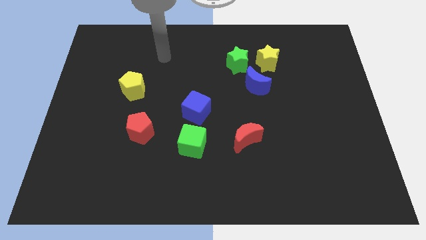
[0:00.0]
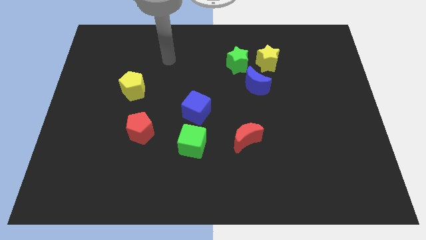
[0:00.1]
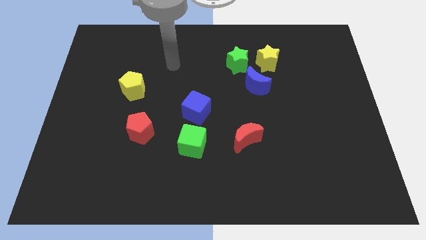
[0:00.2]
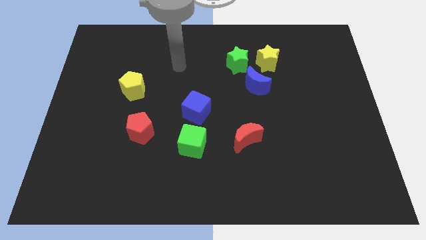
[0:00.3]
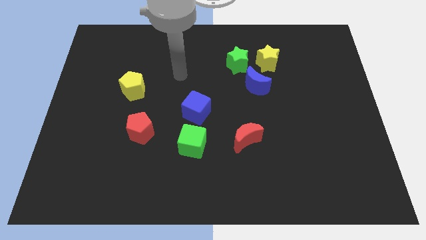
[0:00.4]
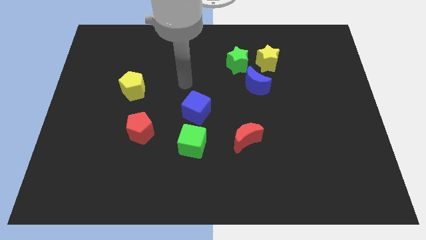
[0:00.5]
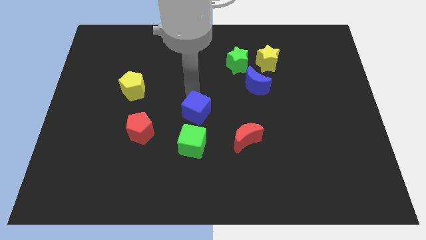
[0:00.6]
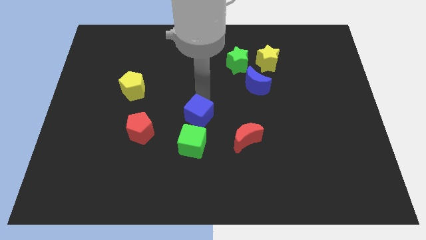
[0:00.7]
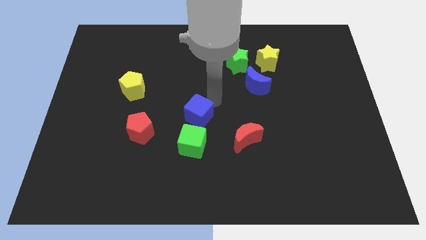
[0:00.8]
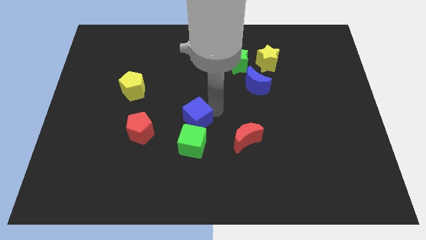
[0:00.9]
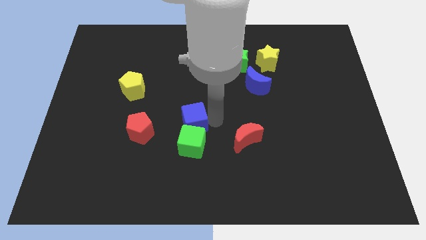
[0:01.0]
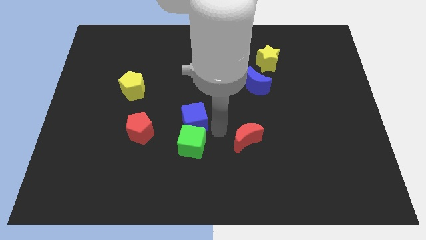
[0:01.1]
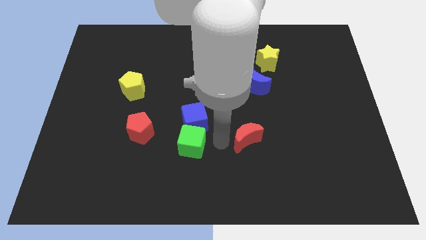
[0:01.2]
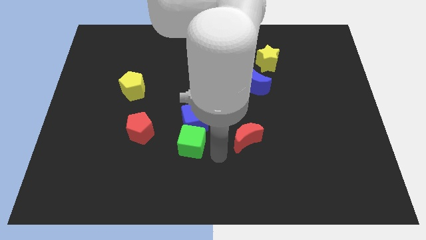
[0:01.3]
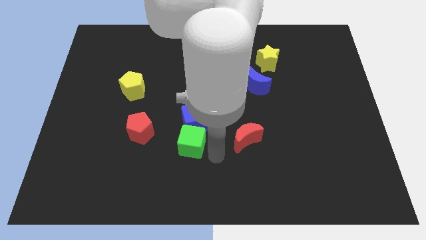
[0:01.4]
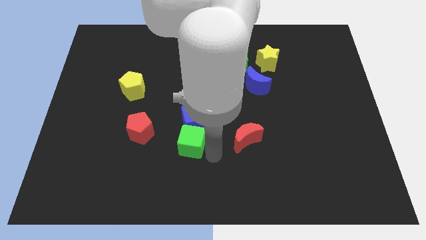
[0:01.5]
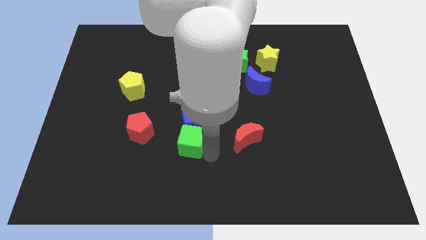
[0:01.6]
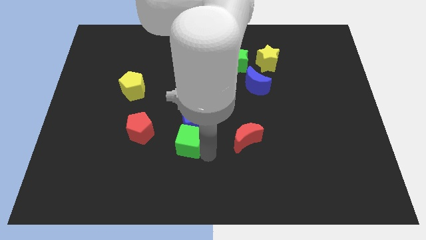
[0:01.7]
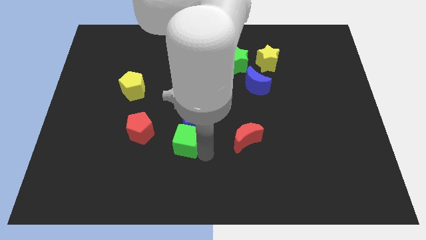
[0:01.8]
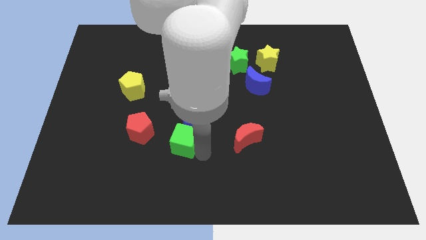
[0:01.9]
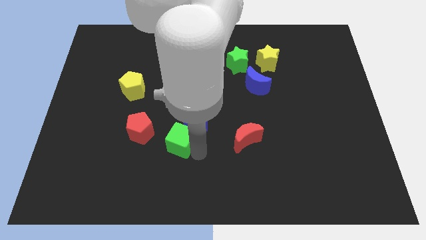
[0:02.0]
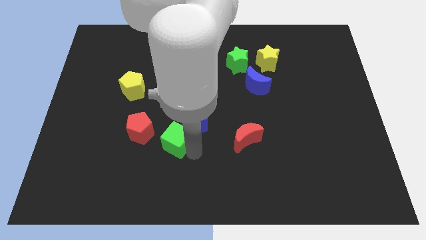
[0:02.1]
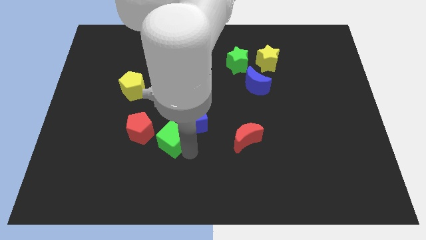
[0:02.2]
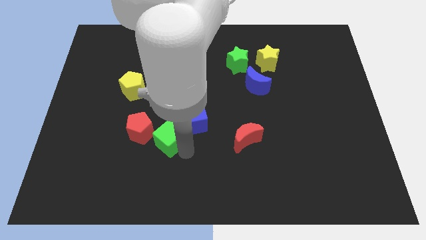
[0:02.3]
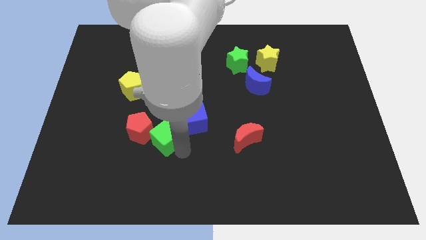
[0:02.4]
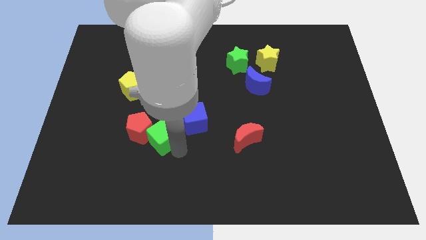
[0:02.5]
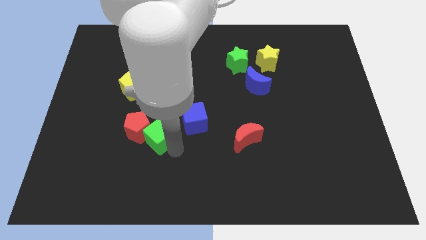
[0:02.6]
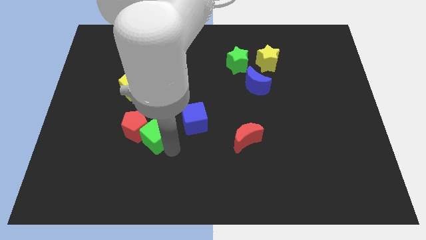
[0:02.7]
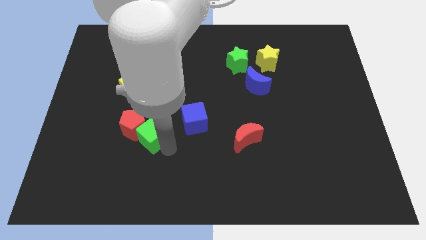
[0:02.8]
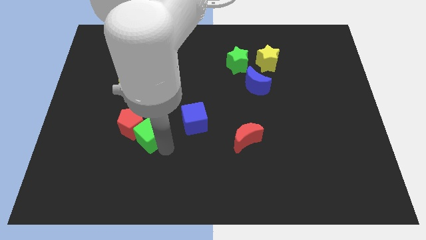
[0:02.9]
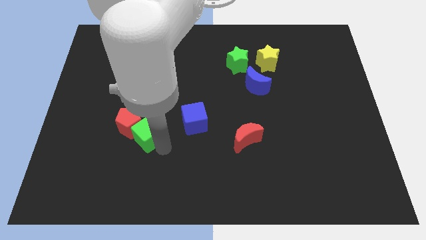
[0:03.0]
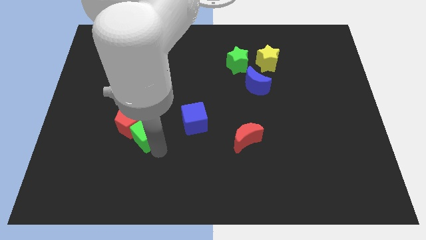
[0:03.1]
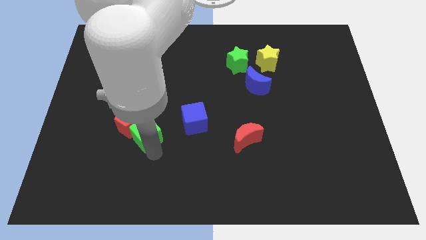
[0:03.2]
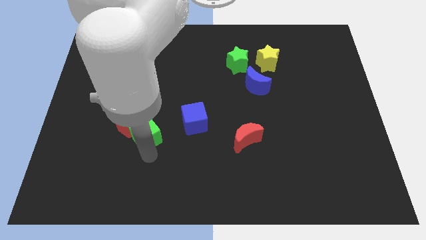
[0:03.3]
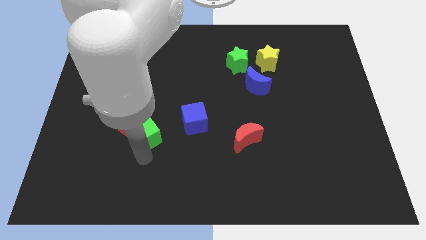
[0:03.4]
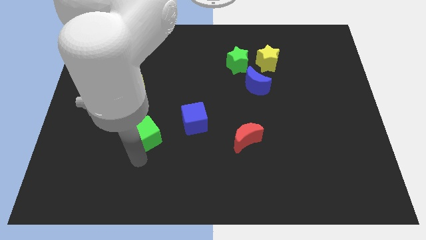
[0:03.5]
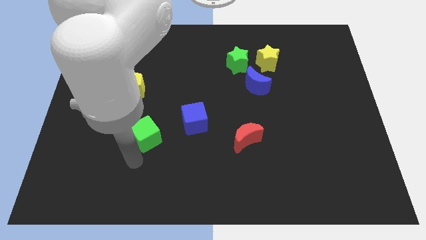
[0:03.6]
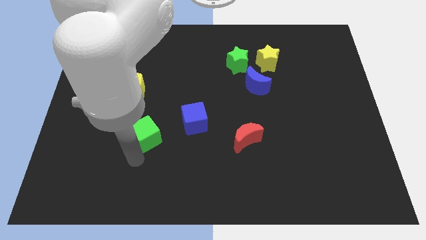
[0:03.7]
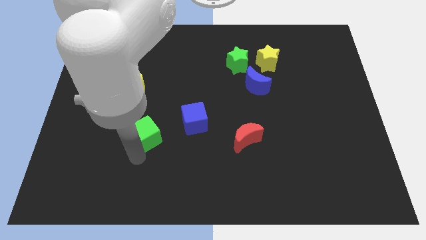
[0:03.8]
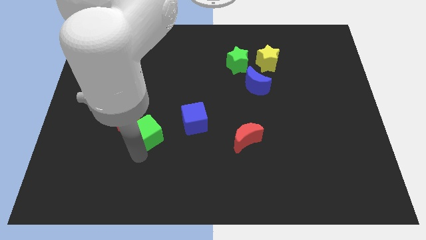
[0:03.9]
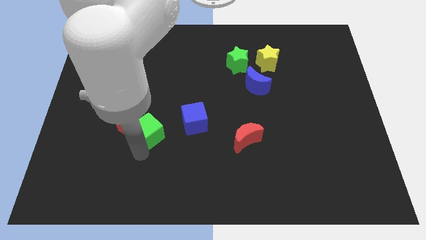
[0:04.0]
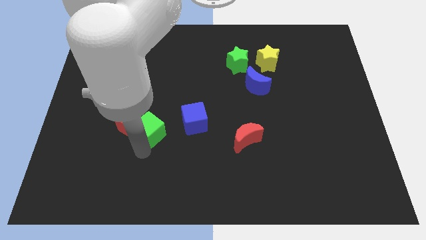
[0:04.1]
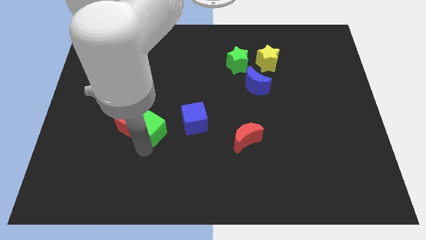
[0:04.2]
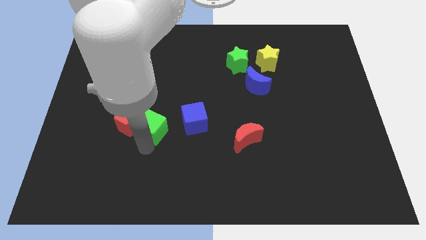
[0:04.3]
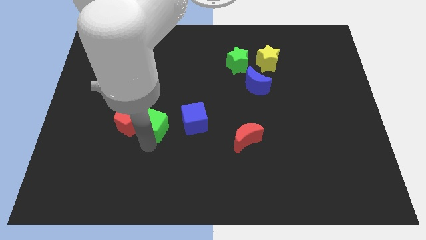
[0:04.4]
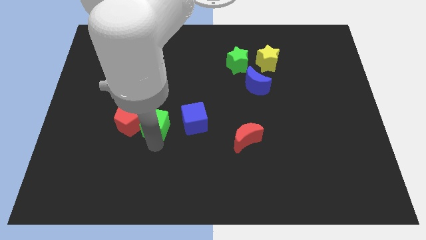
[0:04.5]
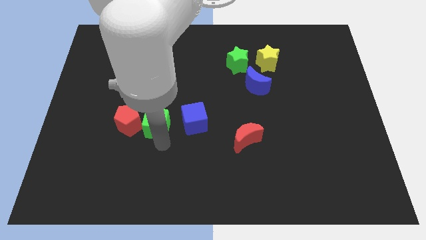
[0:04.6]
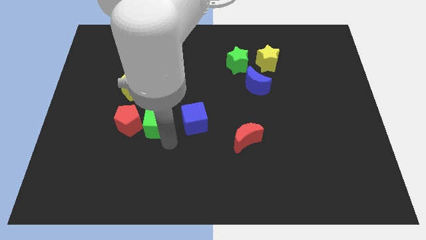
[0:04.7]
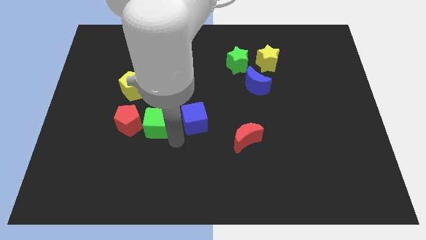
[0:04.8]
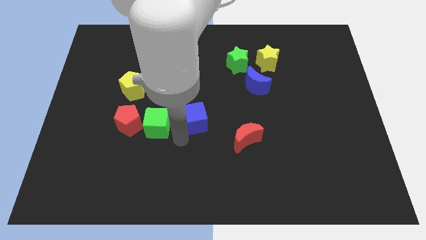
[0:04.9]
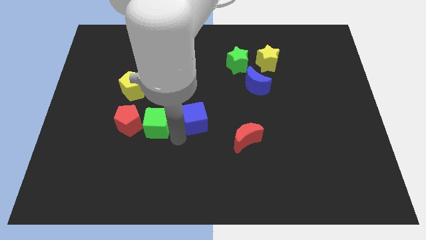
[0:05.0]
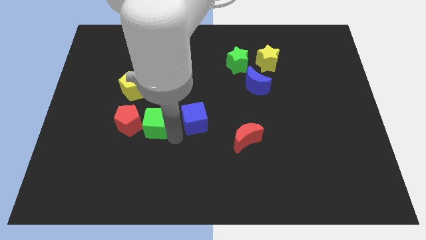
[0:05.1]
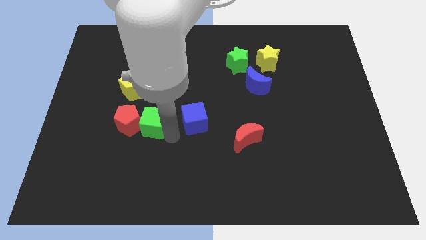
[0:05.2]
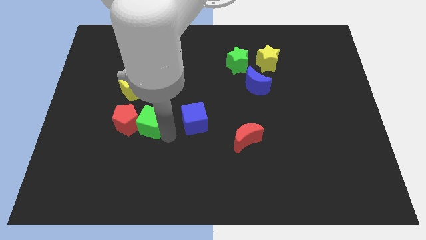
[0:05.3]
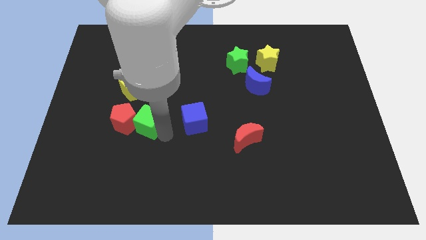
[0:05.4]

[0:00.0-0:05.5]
move the green cube to the bottom of the yellow pentagon

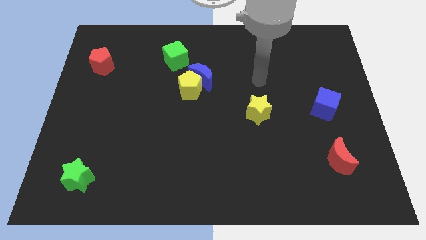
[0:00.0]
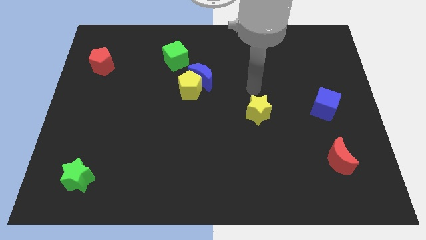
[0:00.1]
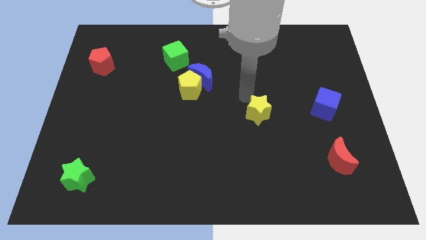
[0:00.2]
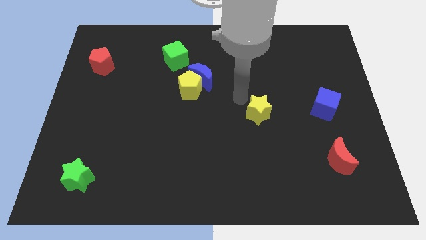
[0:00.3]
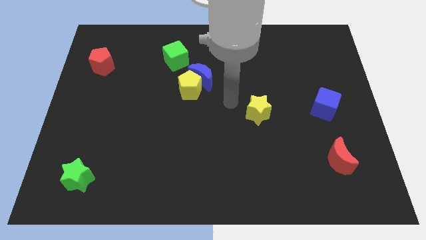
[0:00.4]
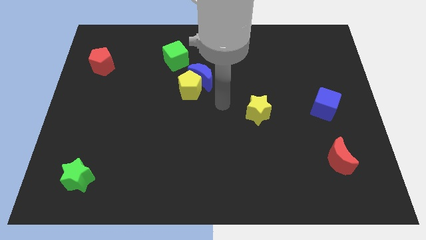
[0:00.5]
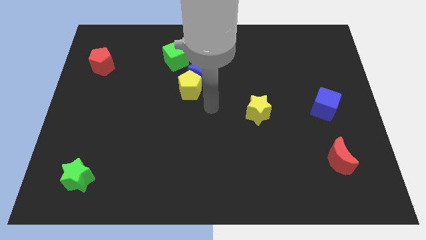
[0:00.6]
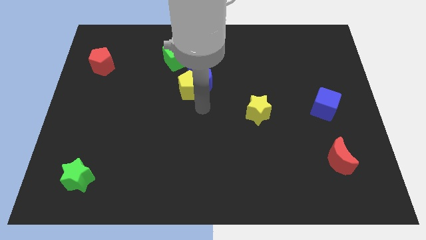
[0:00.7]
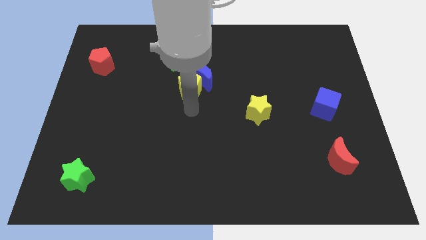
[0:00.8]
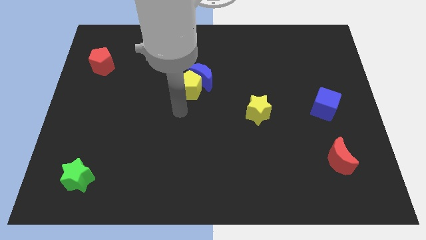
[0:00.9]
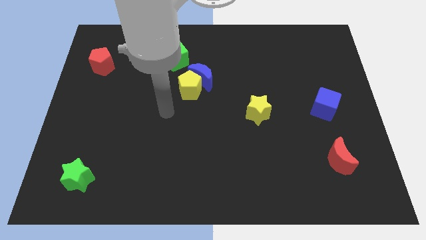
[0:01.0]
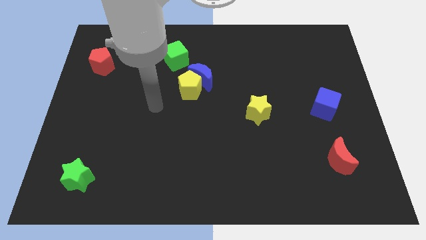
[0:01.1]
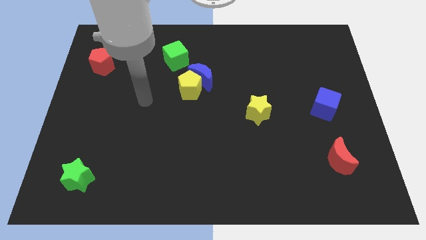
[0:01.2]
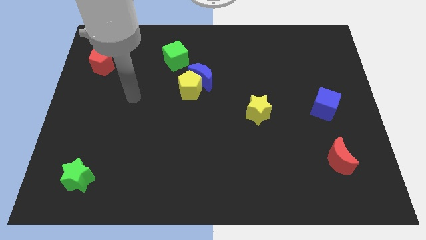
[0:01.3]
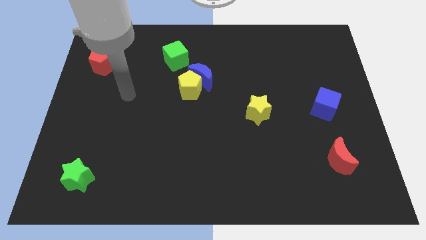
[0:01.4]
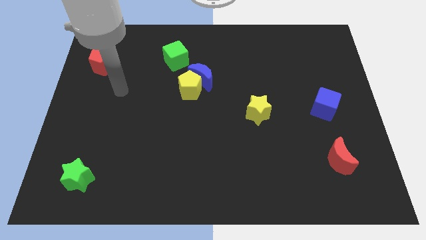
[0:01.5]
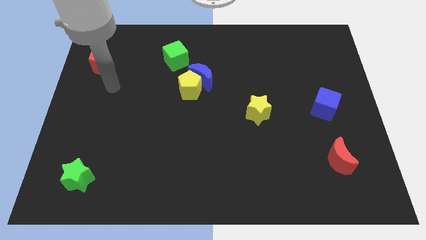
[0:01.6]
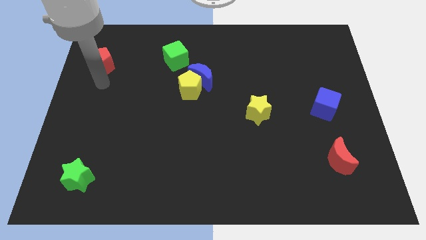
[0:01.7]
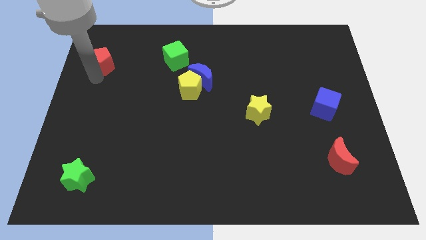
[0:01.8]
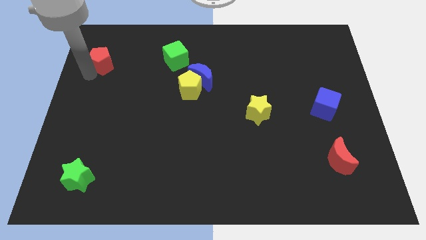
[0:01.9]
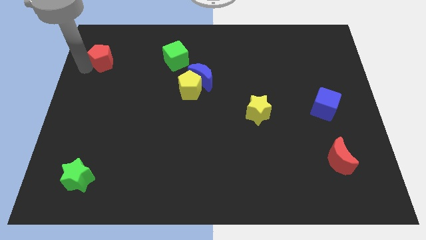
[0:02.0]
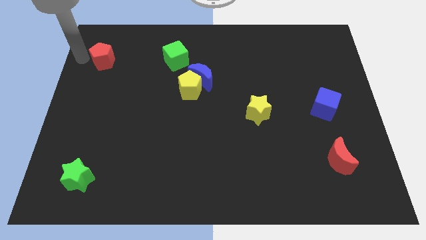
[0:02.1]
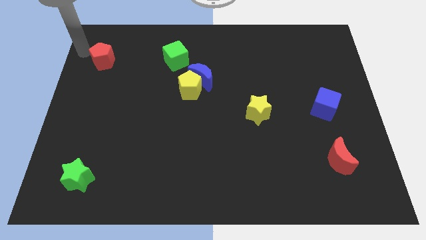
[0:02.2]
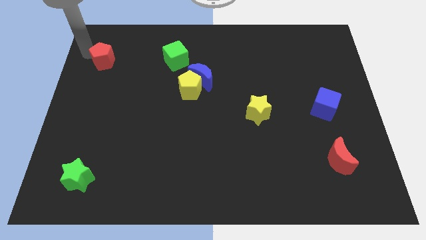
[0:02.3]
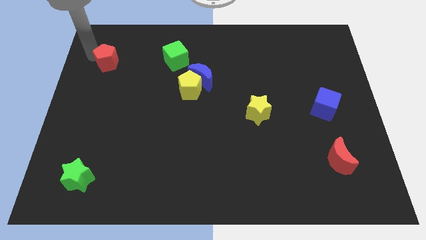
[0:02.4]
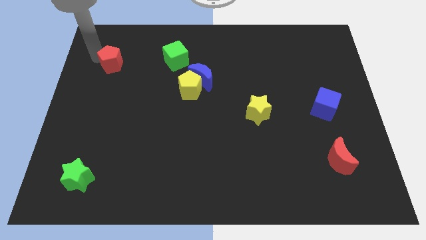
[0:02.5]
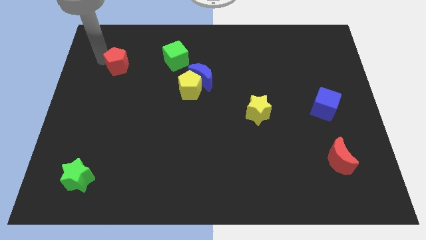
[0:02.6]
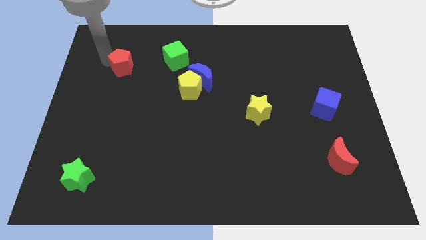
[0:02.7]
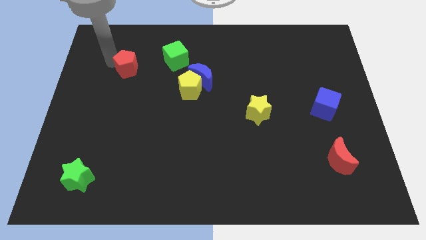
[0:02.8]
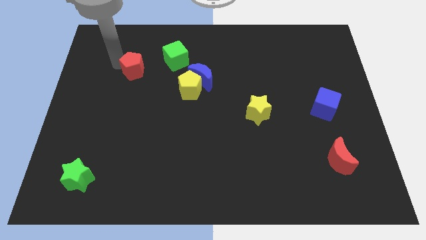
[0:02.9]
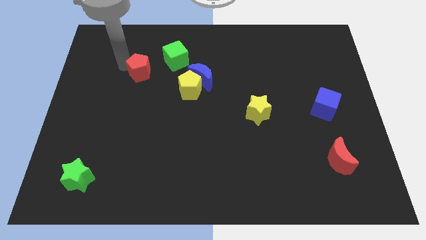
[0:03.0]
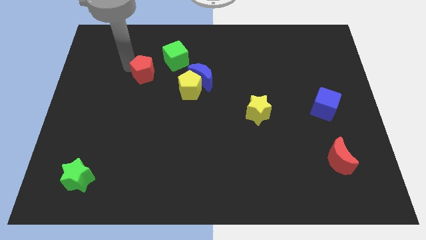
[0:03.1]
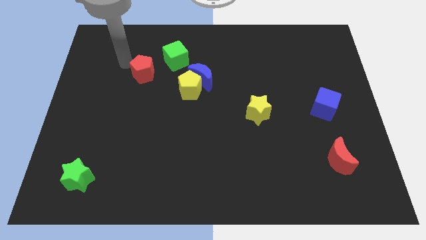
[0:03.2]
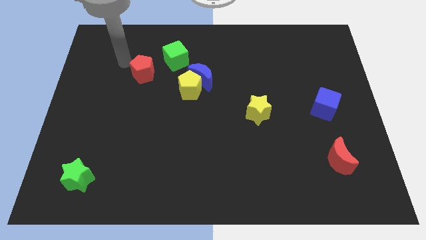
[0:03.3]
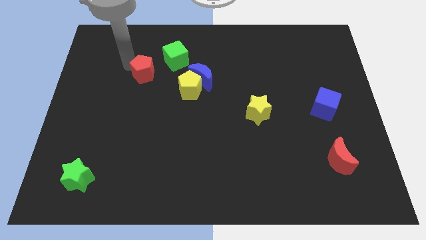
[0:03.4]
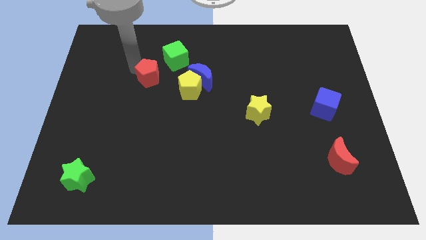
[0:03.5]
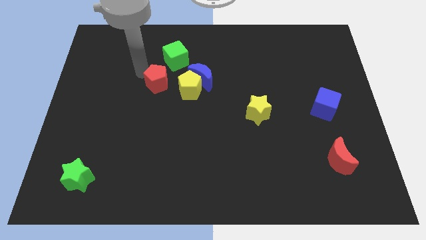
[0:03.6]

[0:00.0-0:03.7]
push the red pentagon below the green cube
